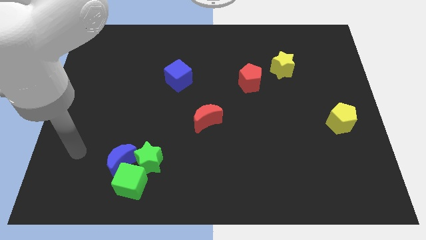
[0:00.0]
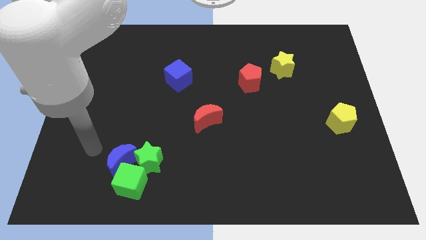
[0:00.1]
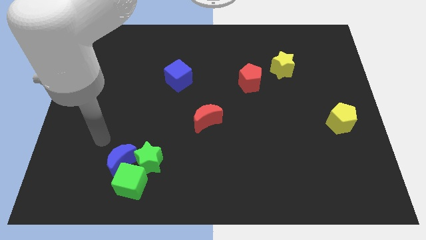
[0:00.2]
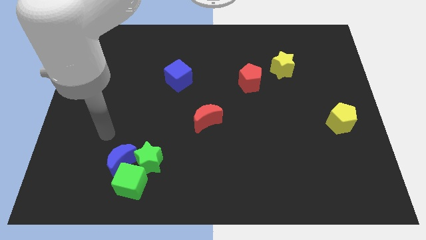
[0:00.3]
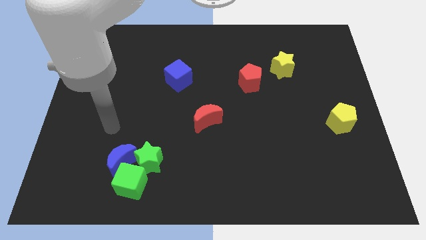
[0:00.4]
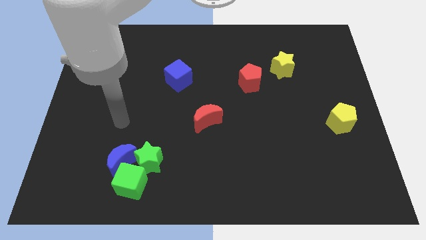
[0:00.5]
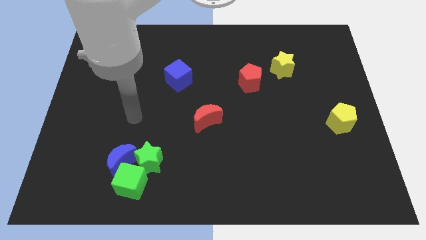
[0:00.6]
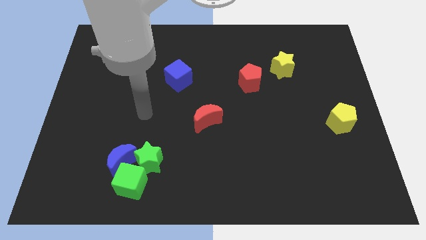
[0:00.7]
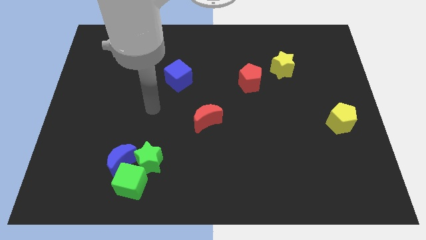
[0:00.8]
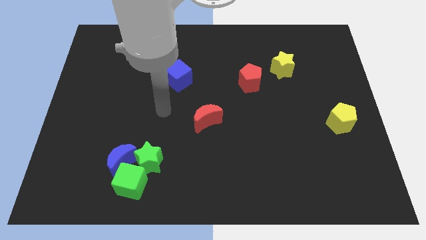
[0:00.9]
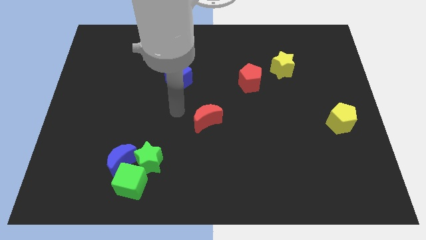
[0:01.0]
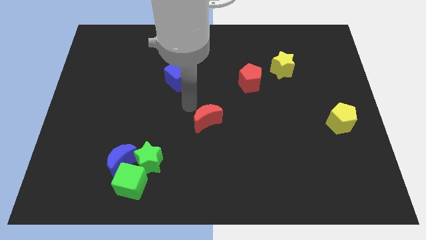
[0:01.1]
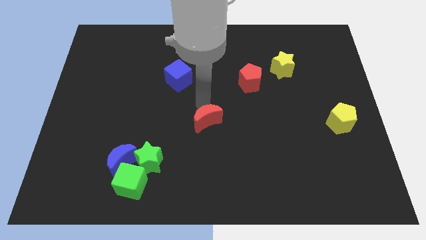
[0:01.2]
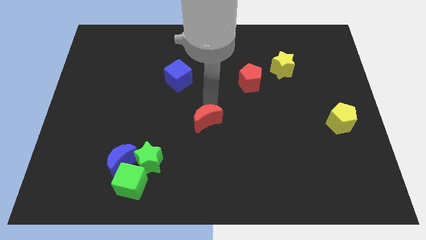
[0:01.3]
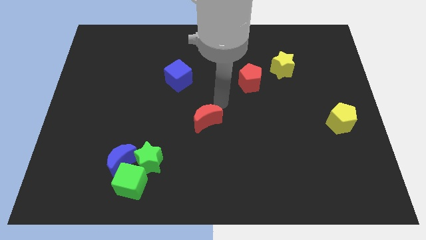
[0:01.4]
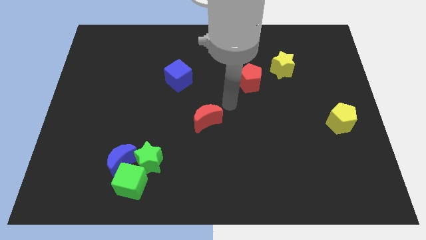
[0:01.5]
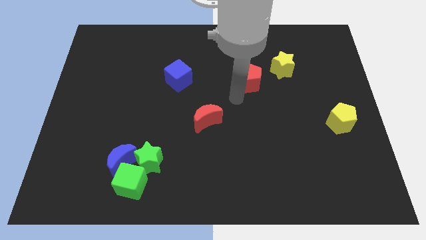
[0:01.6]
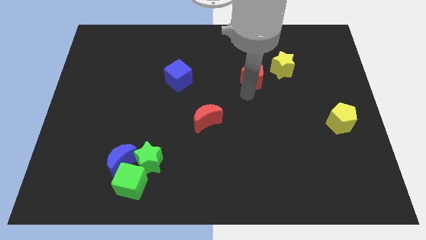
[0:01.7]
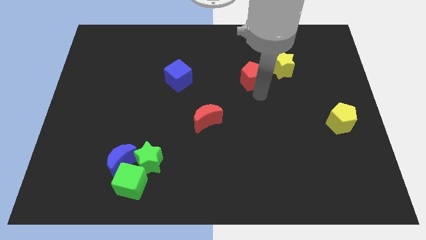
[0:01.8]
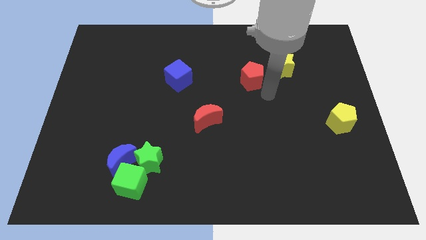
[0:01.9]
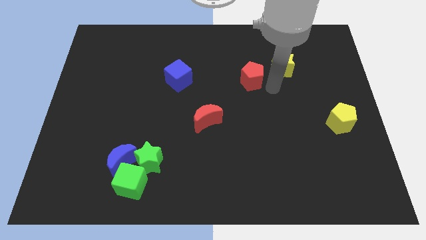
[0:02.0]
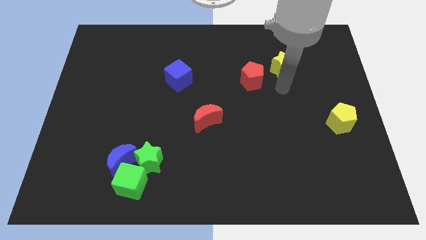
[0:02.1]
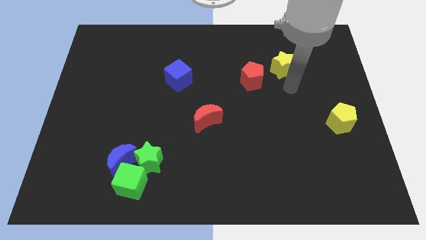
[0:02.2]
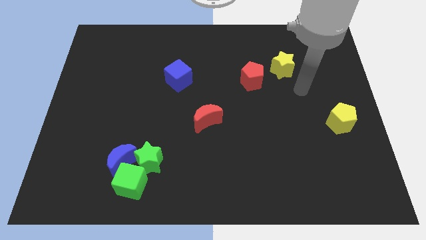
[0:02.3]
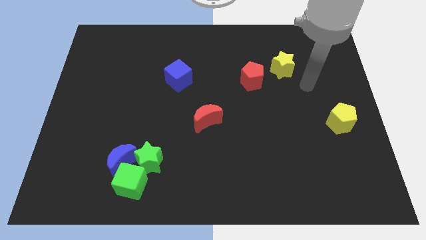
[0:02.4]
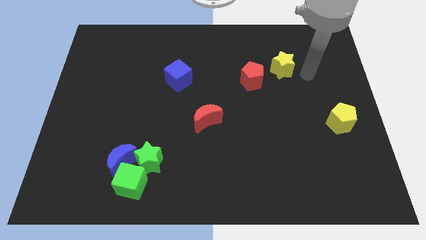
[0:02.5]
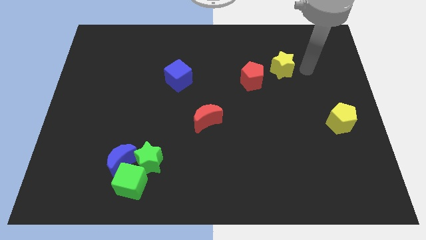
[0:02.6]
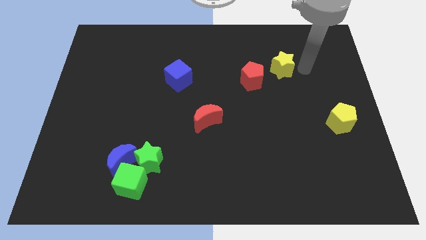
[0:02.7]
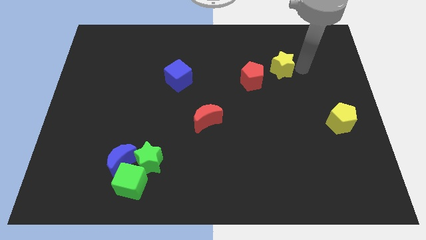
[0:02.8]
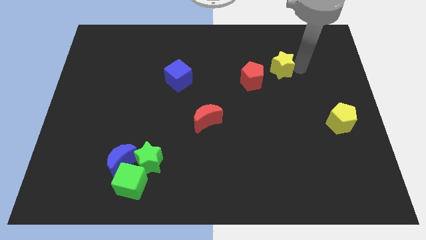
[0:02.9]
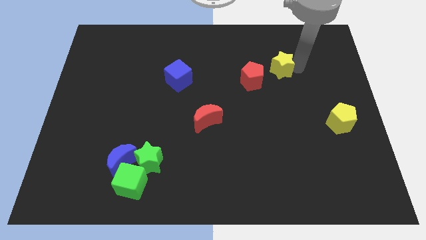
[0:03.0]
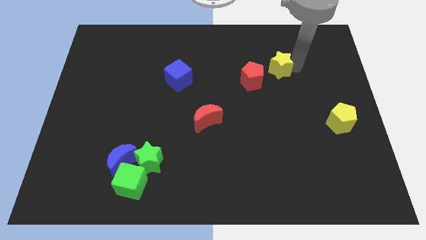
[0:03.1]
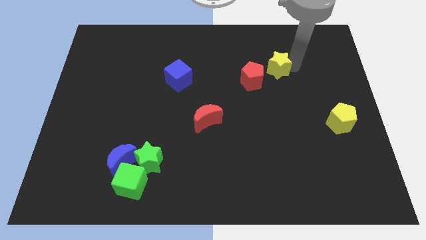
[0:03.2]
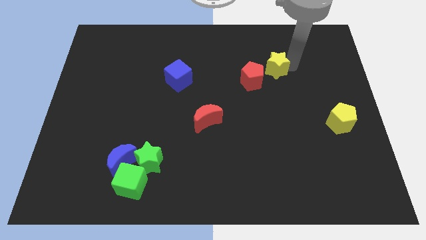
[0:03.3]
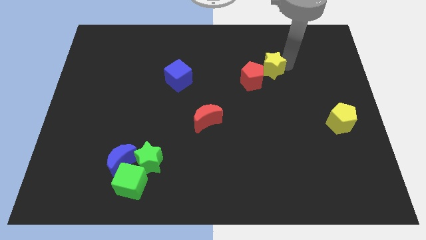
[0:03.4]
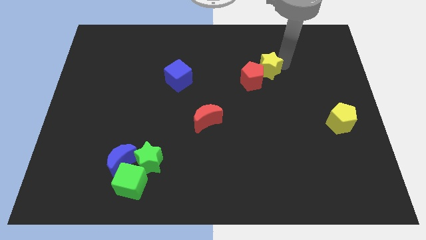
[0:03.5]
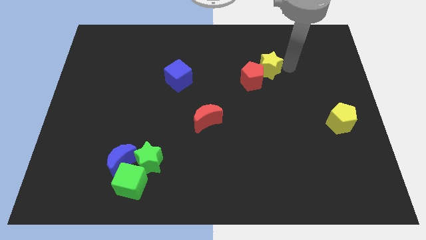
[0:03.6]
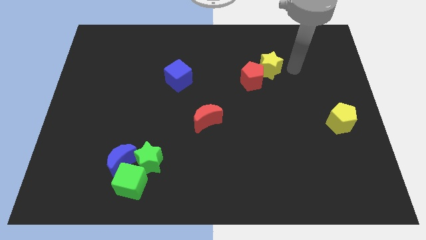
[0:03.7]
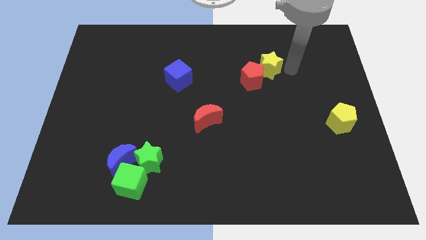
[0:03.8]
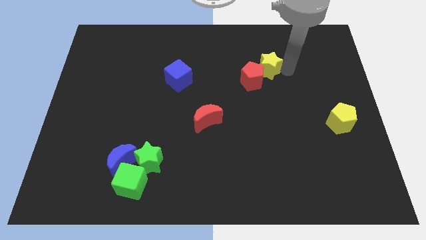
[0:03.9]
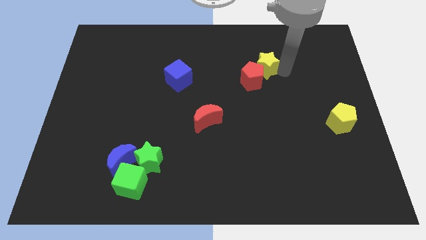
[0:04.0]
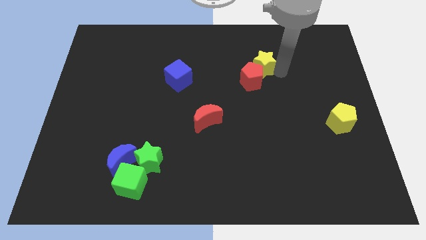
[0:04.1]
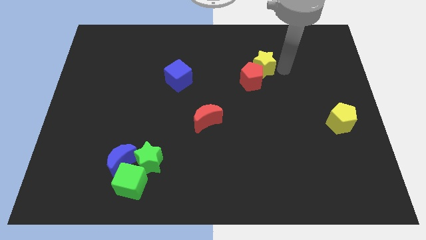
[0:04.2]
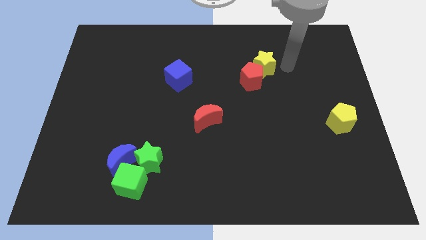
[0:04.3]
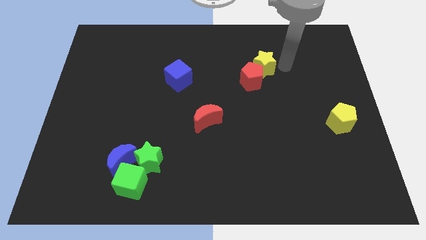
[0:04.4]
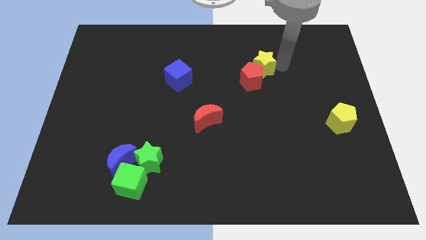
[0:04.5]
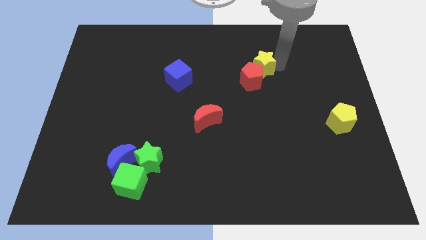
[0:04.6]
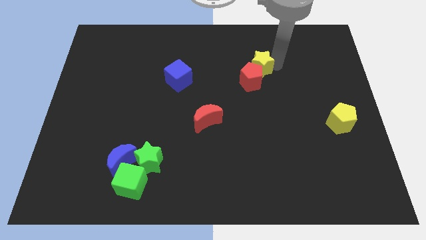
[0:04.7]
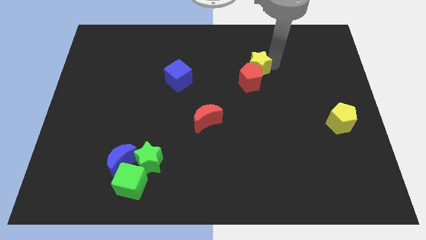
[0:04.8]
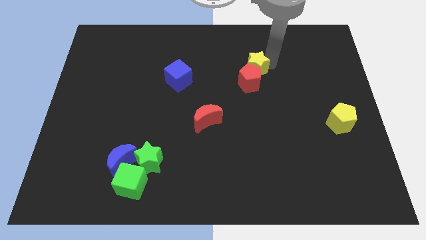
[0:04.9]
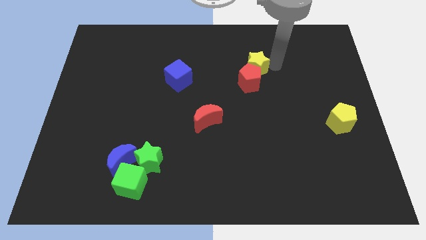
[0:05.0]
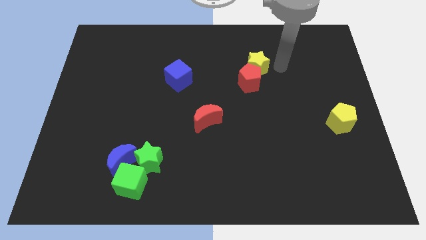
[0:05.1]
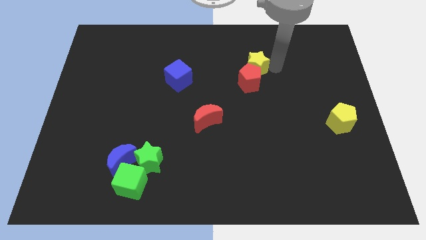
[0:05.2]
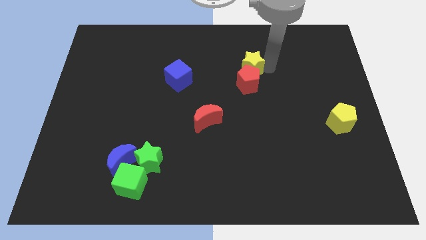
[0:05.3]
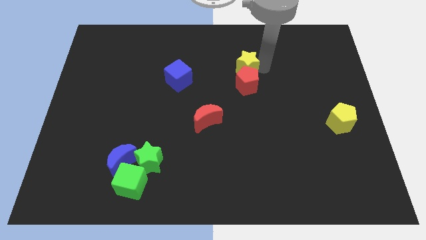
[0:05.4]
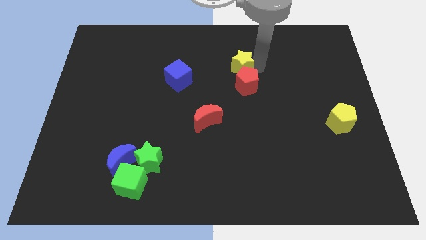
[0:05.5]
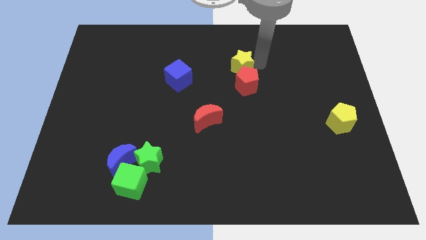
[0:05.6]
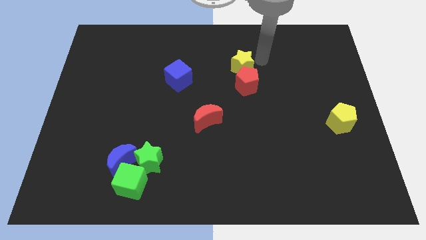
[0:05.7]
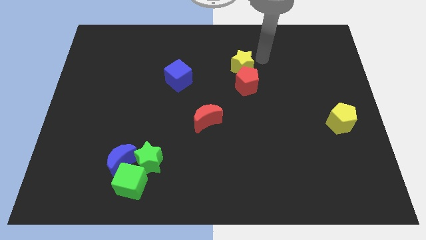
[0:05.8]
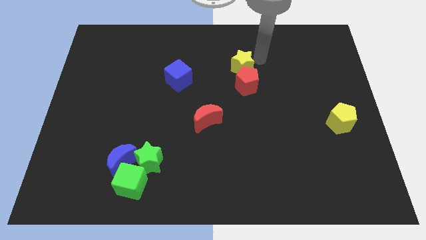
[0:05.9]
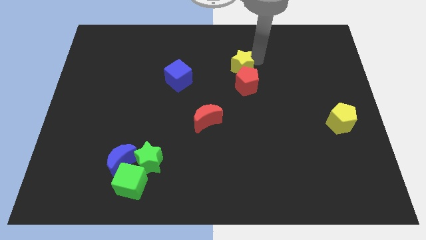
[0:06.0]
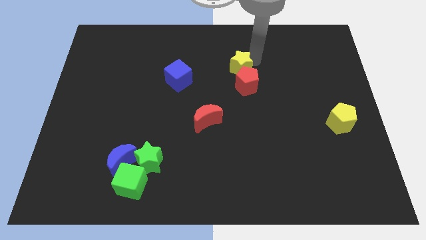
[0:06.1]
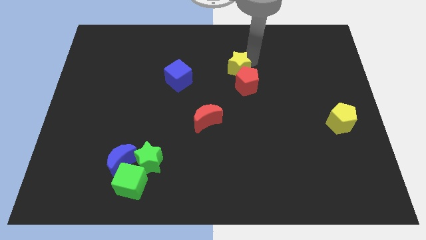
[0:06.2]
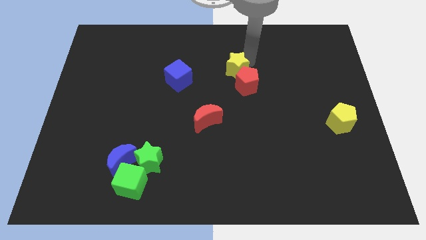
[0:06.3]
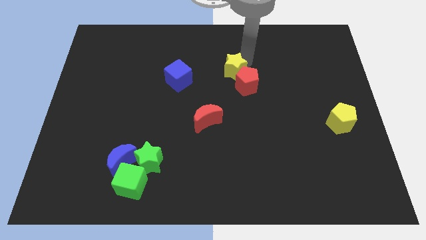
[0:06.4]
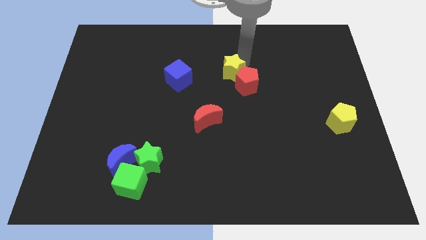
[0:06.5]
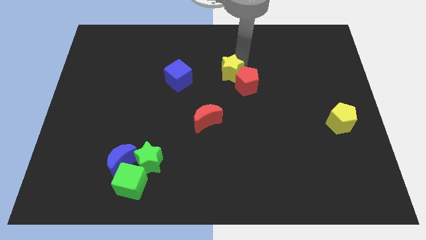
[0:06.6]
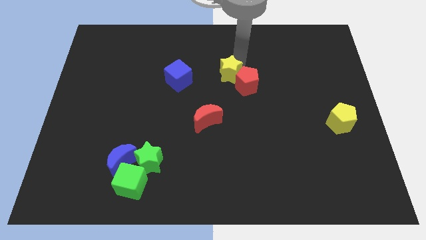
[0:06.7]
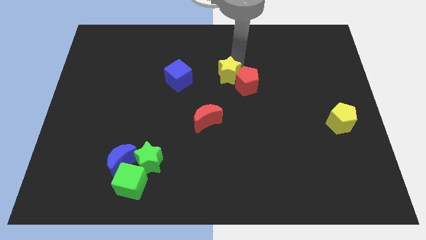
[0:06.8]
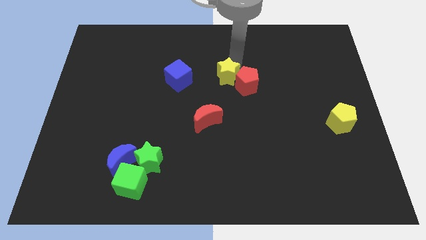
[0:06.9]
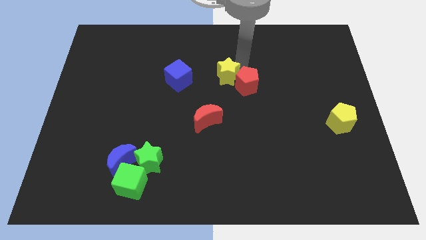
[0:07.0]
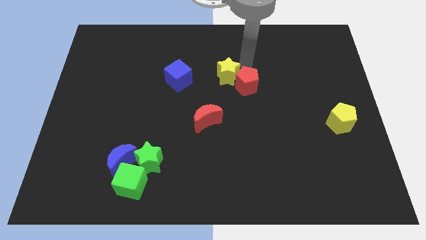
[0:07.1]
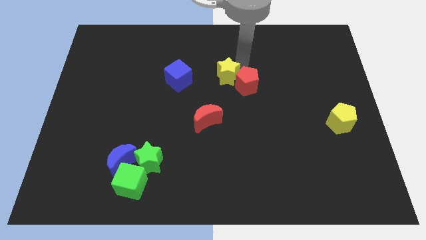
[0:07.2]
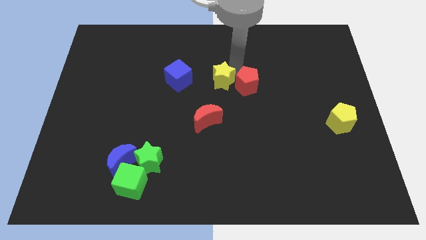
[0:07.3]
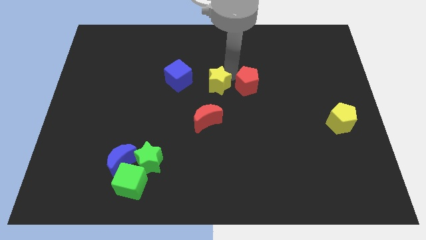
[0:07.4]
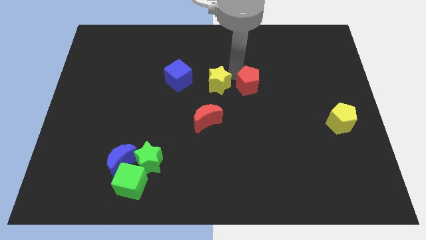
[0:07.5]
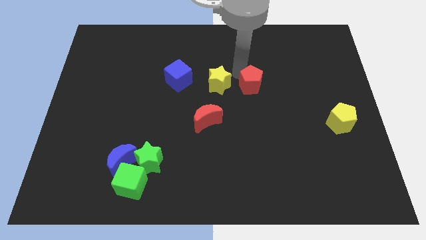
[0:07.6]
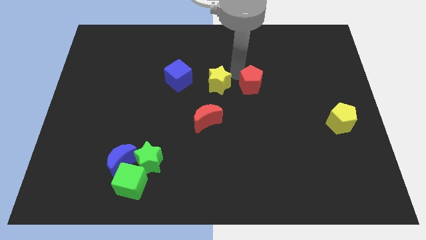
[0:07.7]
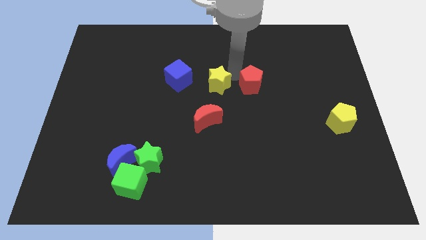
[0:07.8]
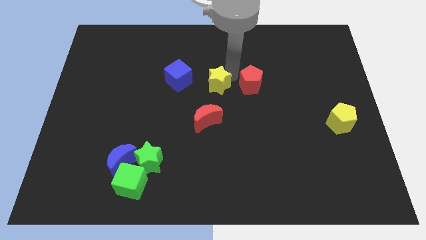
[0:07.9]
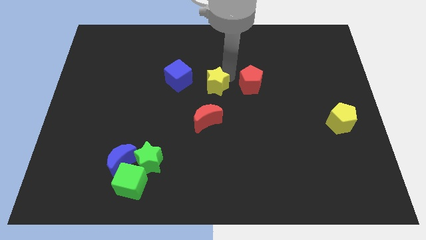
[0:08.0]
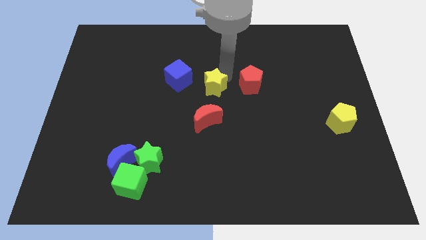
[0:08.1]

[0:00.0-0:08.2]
push the yellow star to the bottom right side of the blue cube
